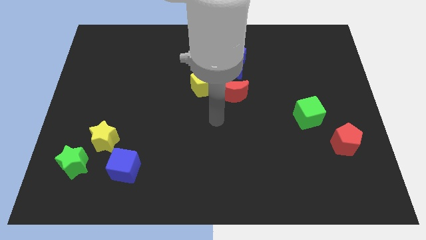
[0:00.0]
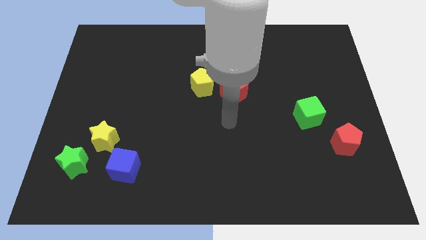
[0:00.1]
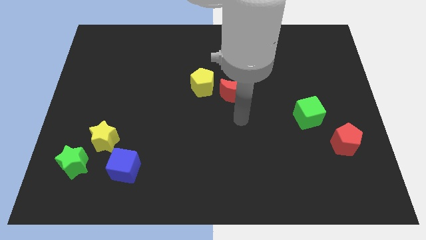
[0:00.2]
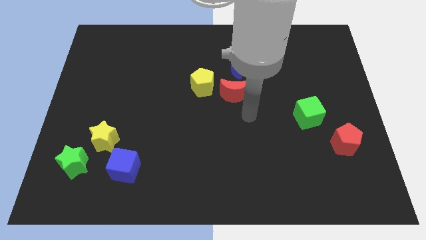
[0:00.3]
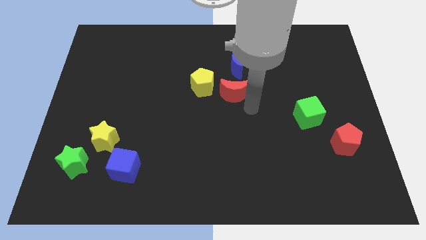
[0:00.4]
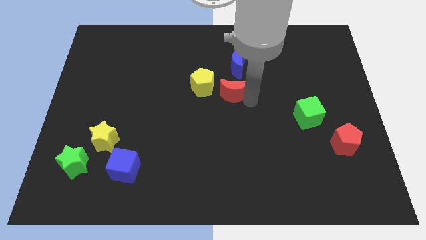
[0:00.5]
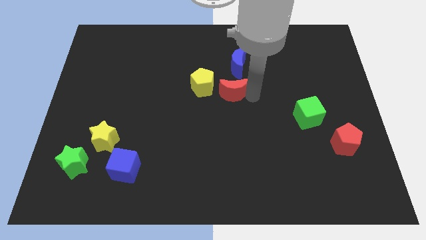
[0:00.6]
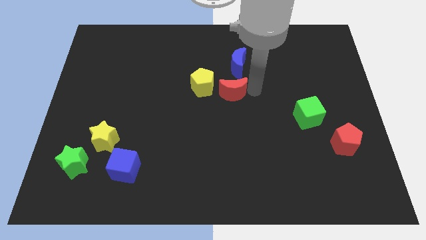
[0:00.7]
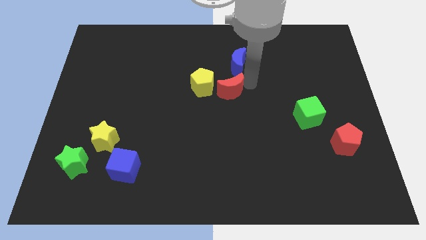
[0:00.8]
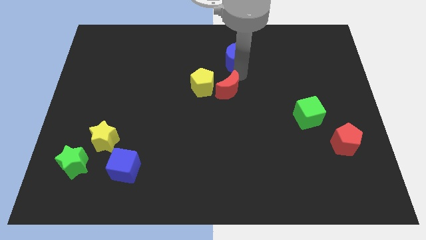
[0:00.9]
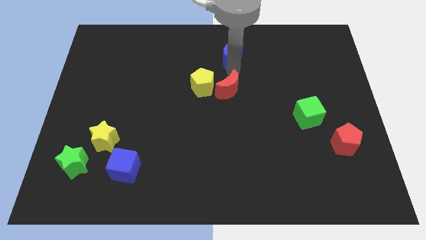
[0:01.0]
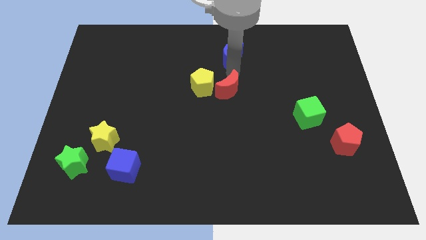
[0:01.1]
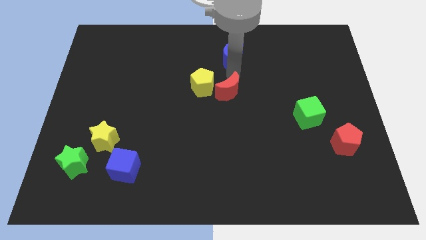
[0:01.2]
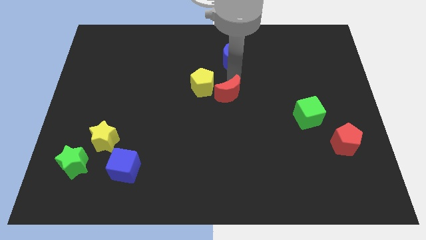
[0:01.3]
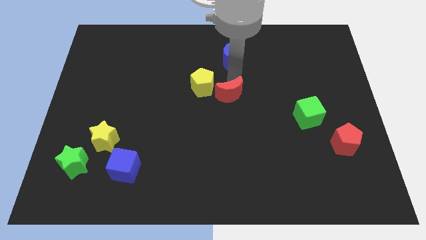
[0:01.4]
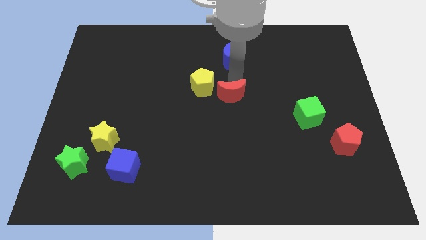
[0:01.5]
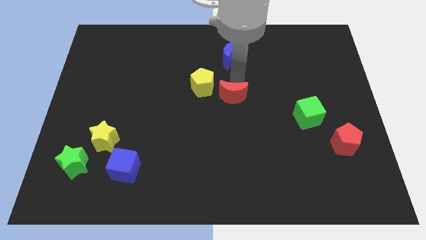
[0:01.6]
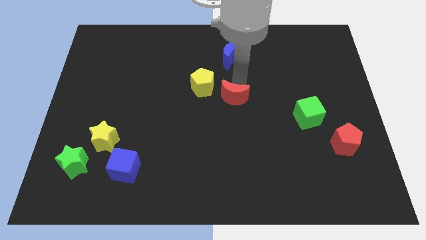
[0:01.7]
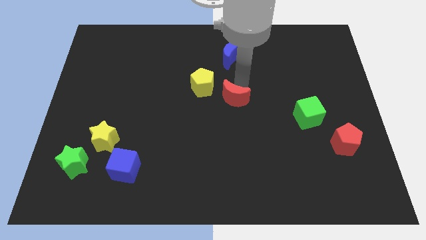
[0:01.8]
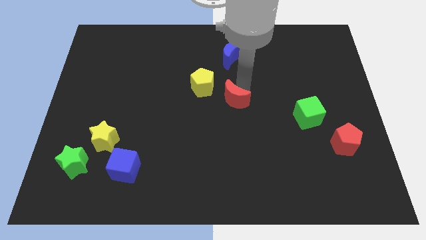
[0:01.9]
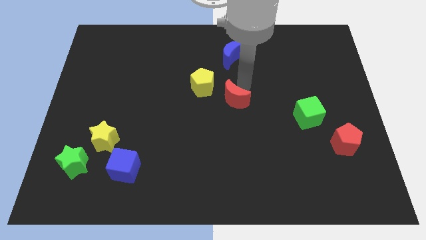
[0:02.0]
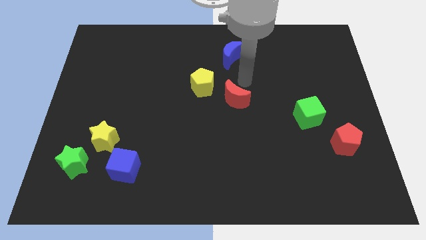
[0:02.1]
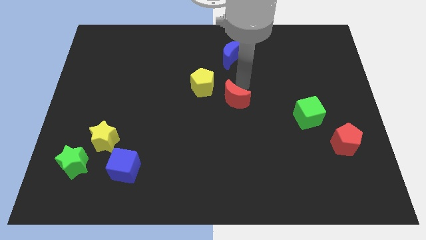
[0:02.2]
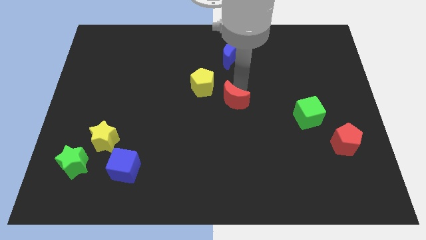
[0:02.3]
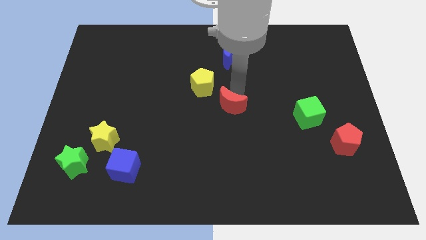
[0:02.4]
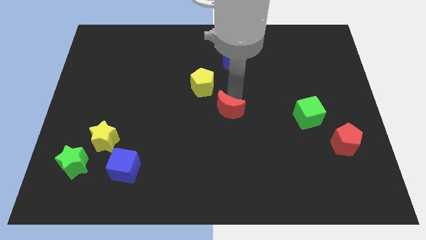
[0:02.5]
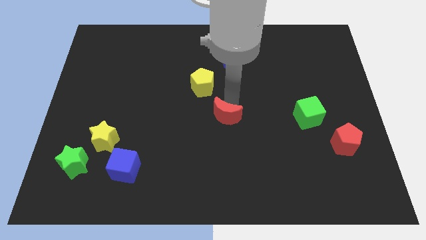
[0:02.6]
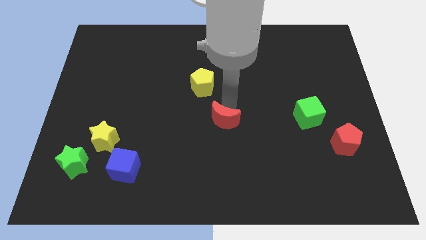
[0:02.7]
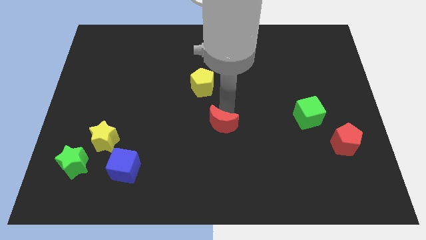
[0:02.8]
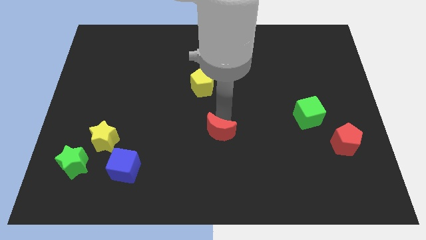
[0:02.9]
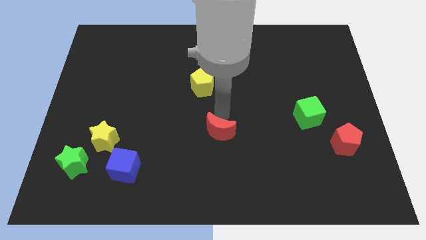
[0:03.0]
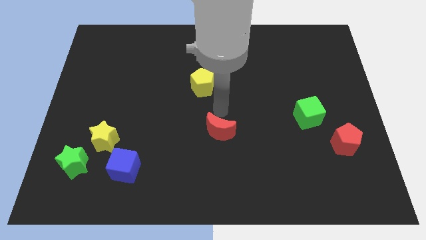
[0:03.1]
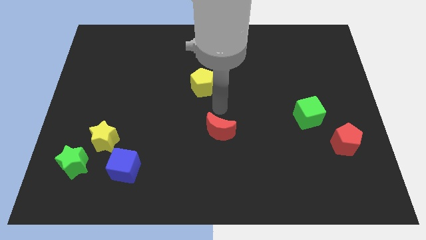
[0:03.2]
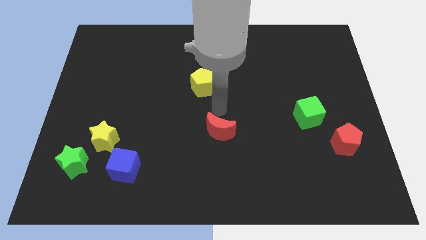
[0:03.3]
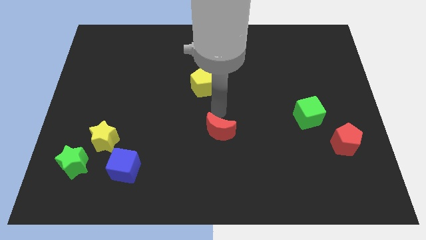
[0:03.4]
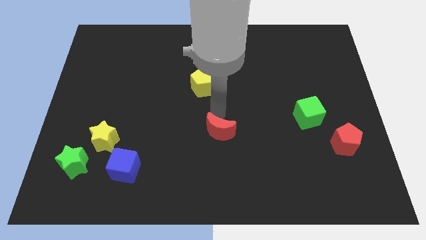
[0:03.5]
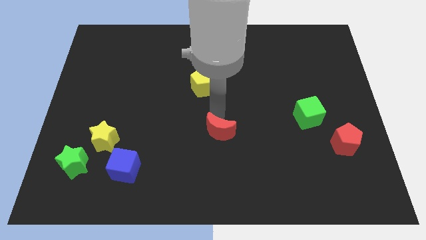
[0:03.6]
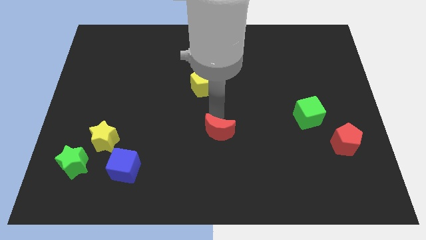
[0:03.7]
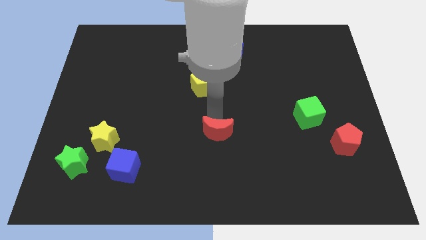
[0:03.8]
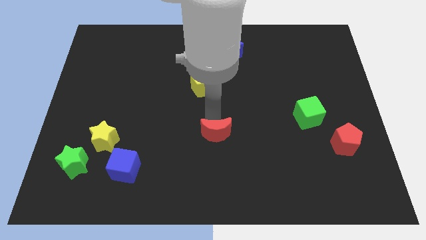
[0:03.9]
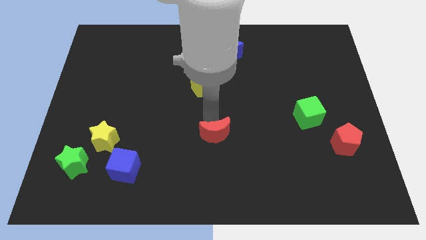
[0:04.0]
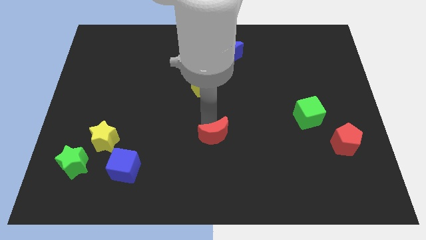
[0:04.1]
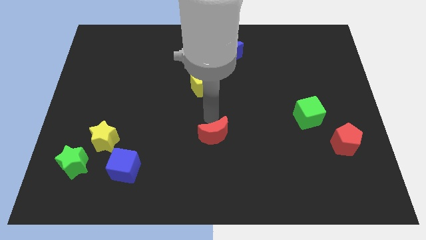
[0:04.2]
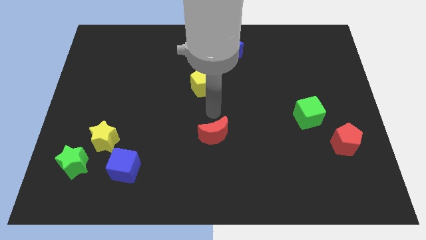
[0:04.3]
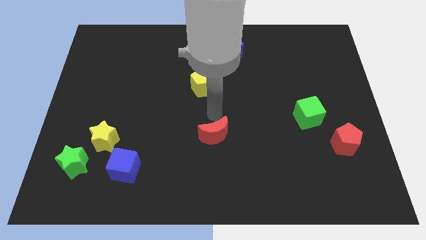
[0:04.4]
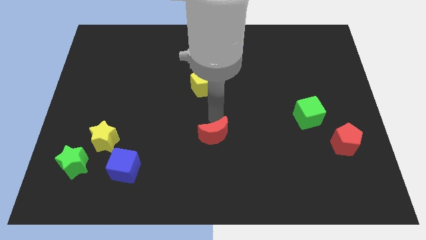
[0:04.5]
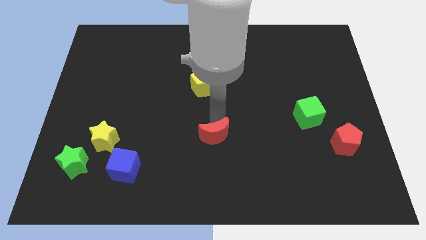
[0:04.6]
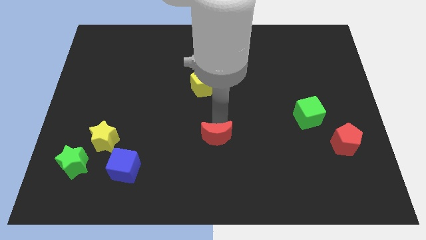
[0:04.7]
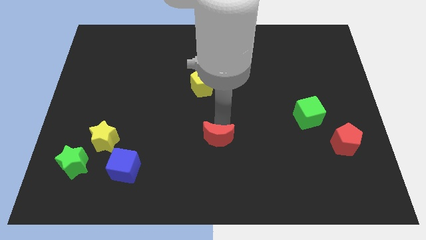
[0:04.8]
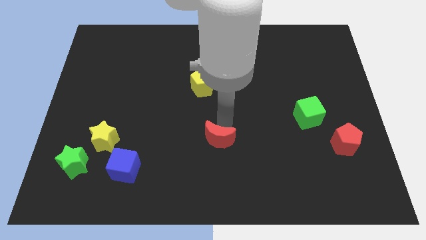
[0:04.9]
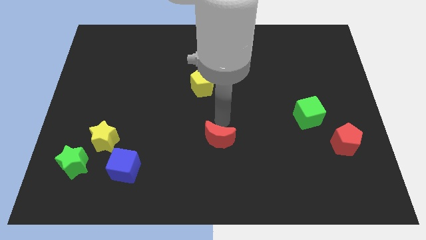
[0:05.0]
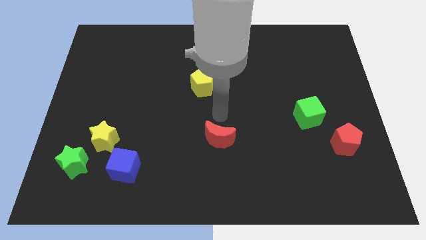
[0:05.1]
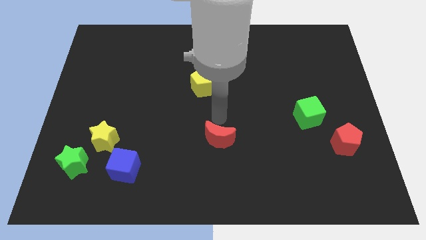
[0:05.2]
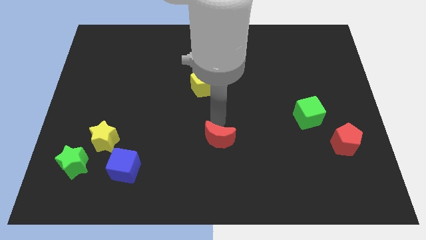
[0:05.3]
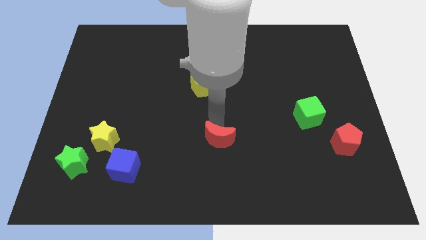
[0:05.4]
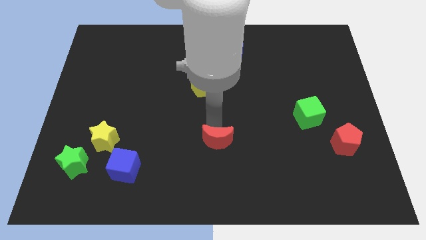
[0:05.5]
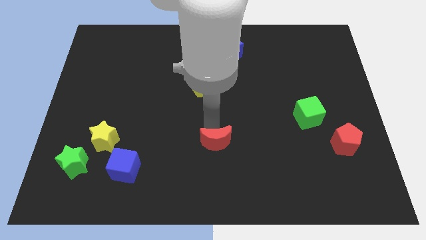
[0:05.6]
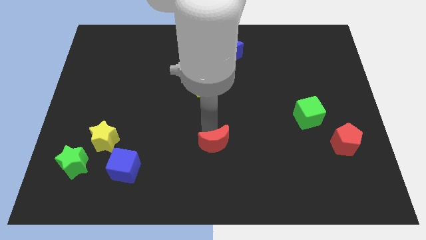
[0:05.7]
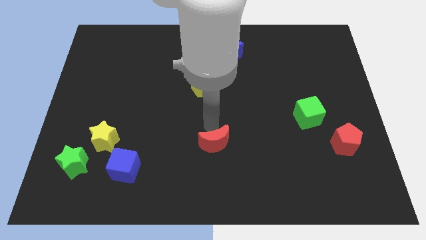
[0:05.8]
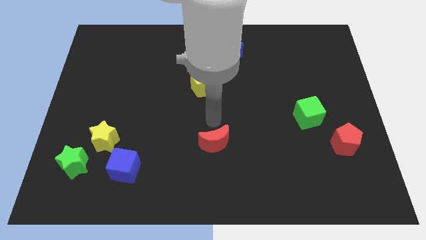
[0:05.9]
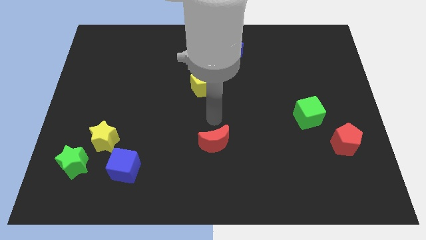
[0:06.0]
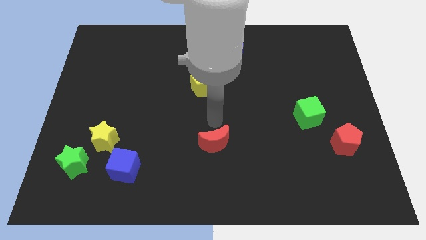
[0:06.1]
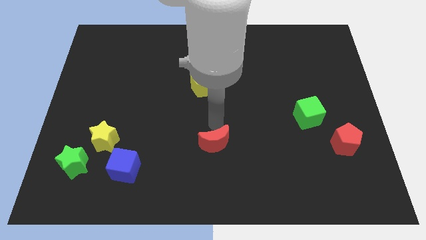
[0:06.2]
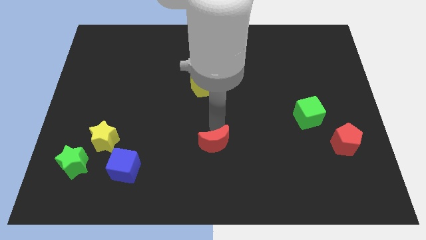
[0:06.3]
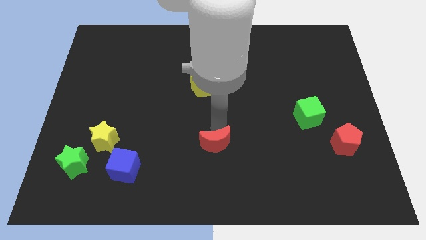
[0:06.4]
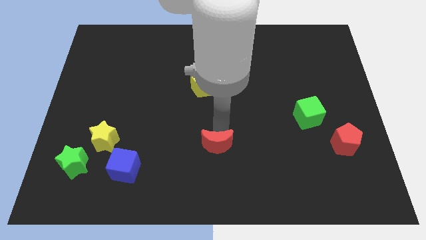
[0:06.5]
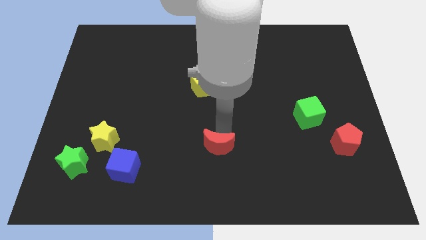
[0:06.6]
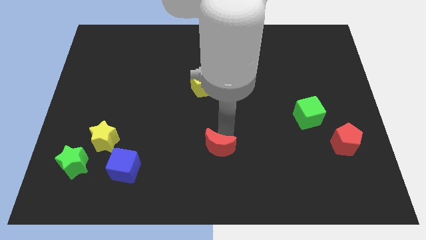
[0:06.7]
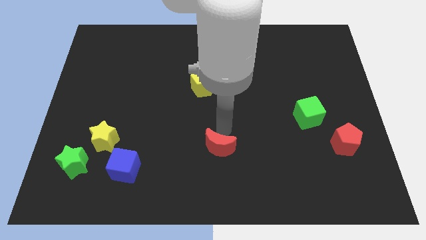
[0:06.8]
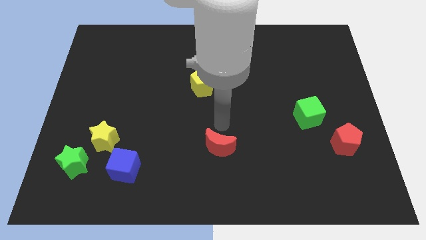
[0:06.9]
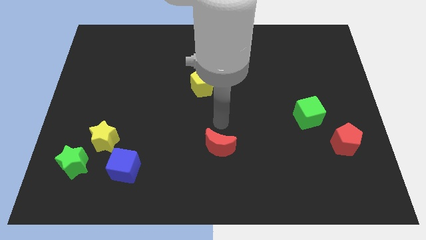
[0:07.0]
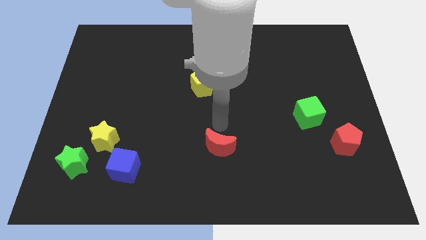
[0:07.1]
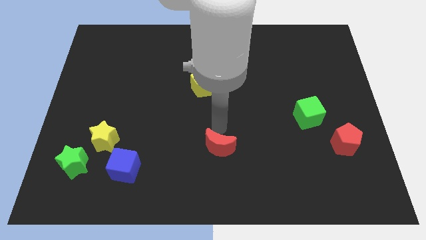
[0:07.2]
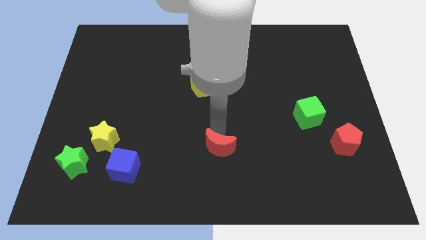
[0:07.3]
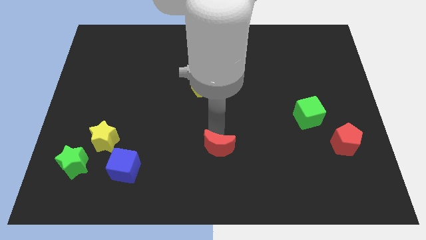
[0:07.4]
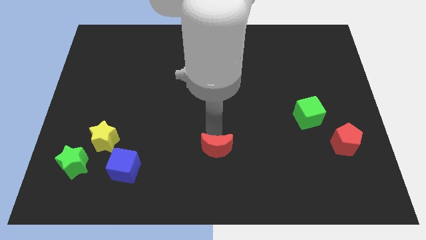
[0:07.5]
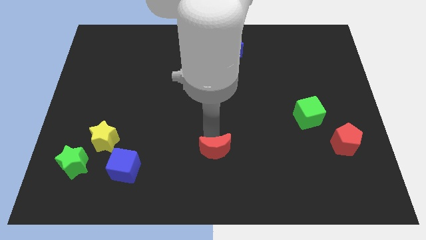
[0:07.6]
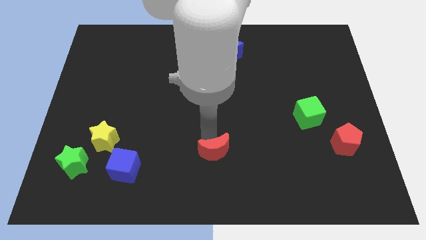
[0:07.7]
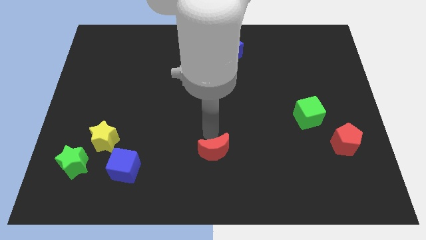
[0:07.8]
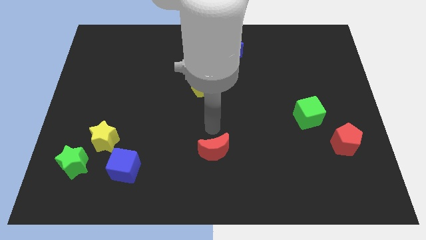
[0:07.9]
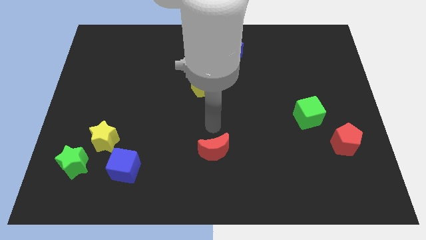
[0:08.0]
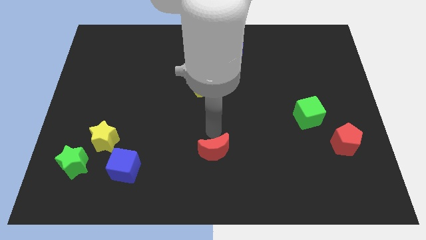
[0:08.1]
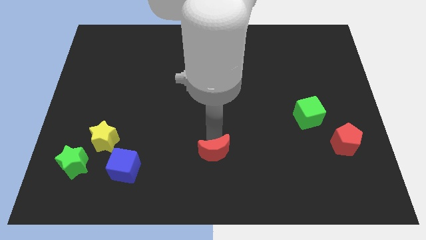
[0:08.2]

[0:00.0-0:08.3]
slide the red moon to the bottom
